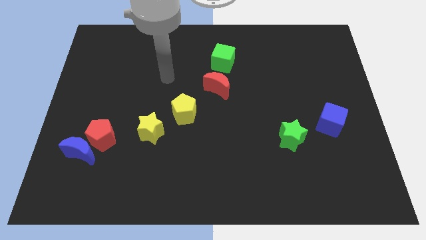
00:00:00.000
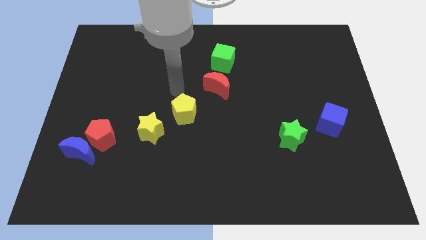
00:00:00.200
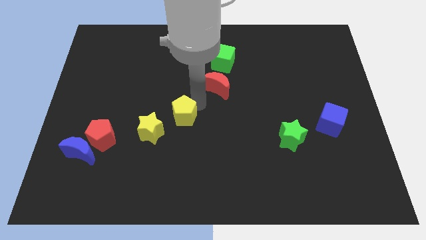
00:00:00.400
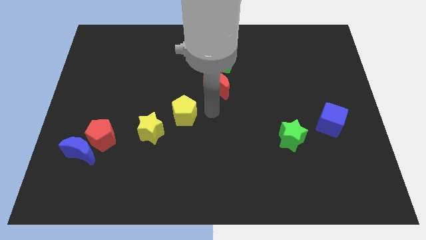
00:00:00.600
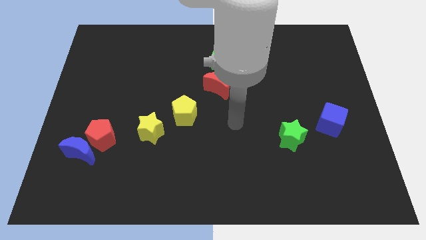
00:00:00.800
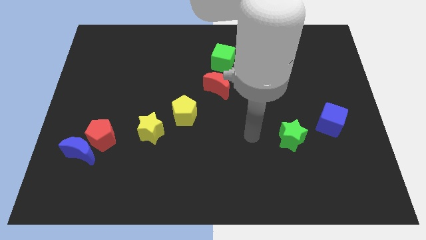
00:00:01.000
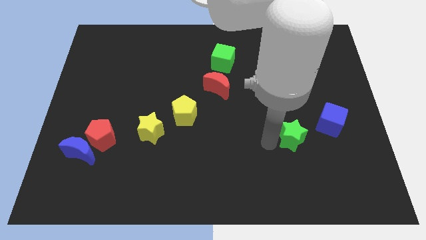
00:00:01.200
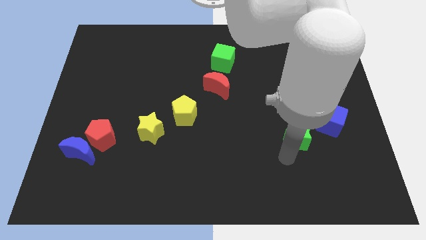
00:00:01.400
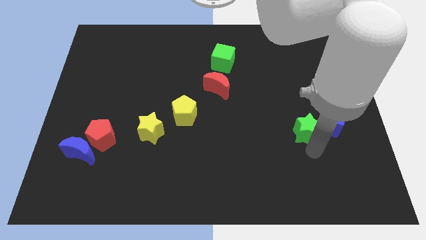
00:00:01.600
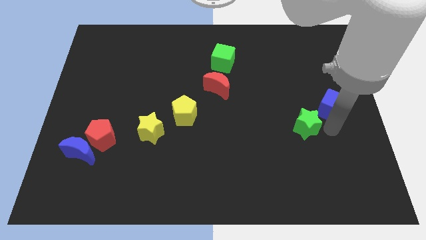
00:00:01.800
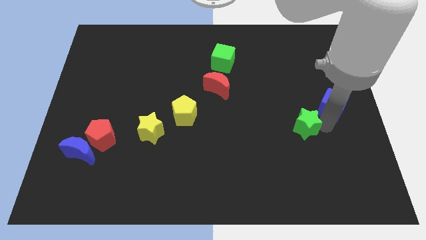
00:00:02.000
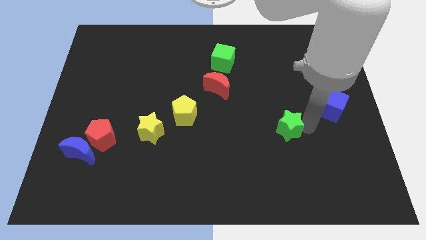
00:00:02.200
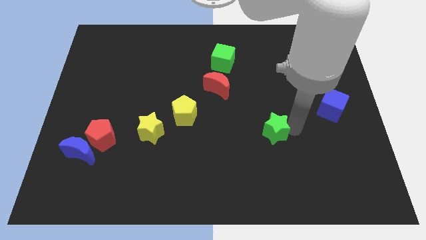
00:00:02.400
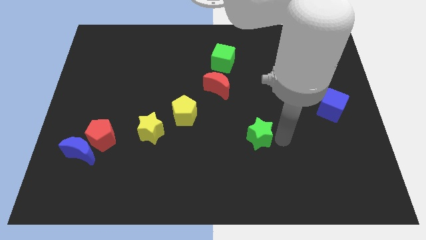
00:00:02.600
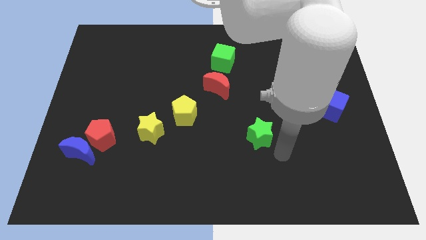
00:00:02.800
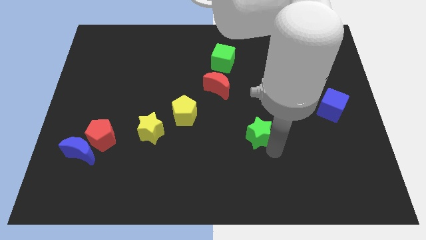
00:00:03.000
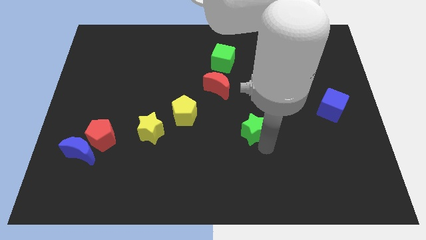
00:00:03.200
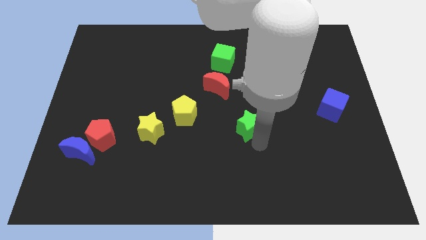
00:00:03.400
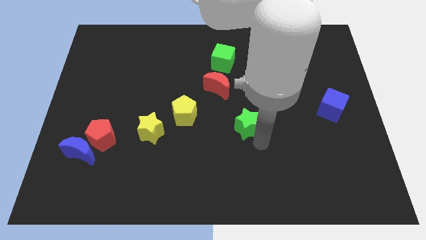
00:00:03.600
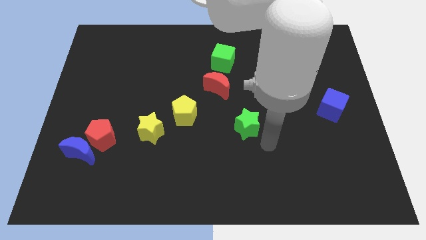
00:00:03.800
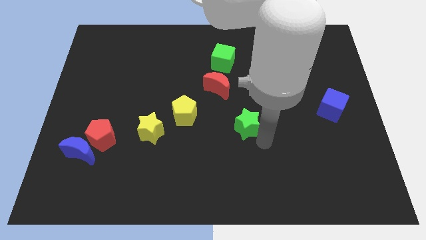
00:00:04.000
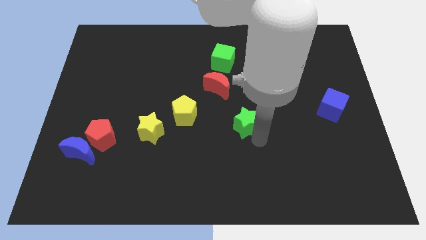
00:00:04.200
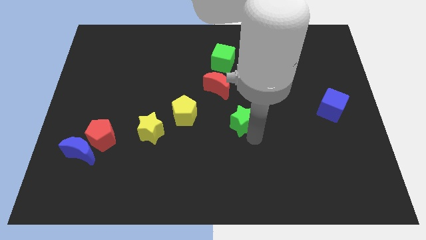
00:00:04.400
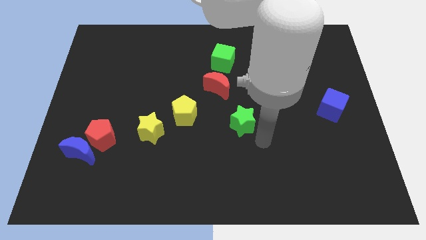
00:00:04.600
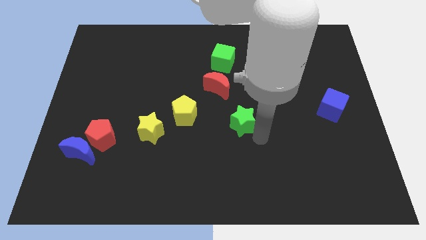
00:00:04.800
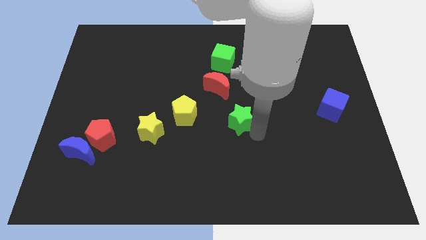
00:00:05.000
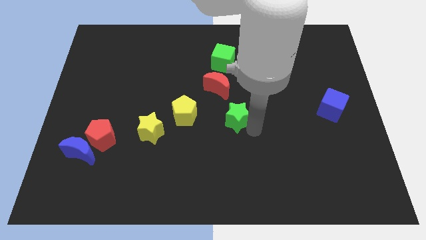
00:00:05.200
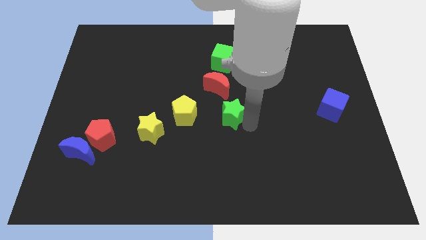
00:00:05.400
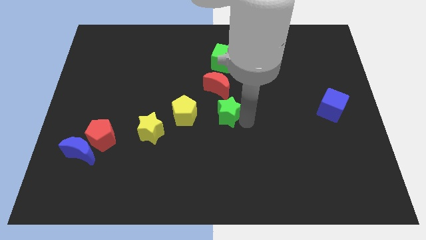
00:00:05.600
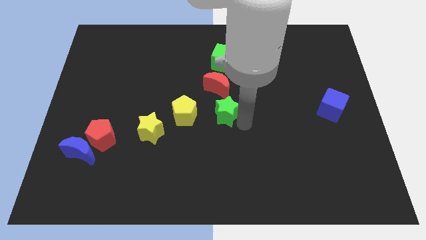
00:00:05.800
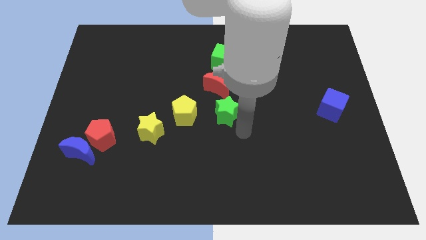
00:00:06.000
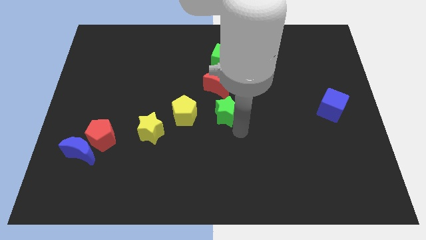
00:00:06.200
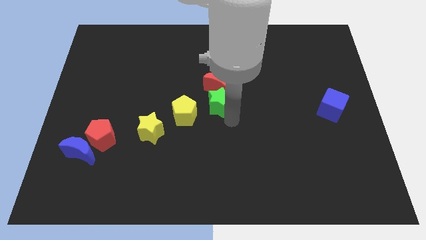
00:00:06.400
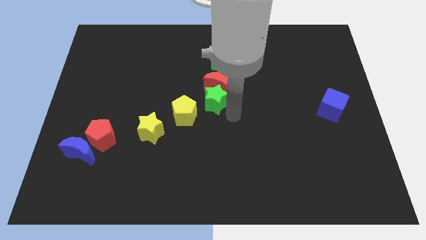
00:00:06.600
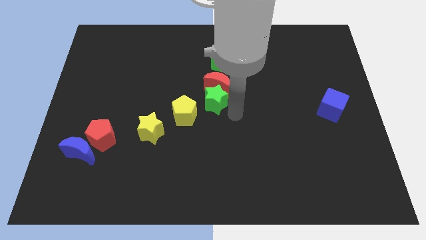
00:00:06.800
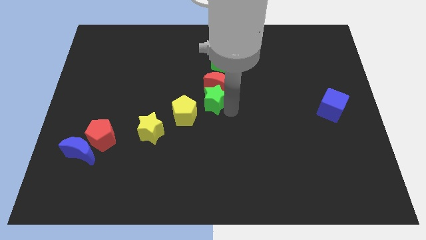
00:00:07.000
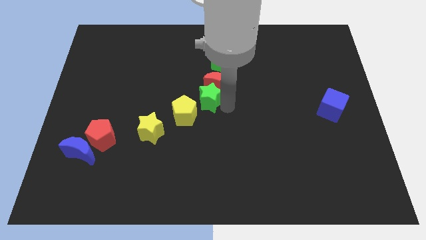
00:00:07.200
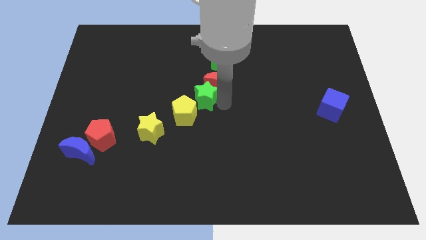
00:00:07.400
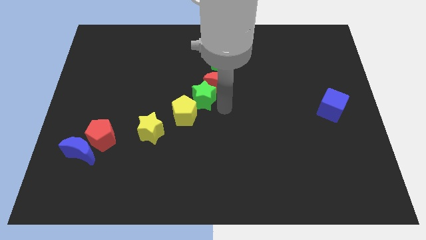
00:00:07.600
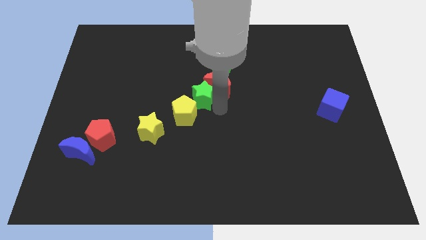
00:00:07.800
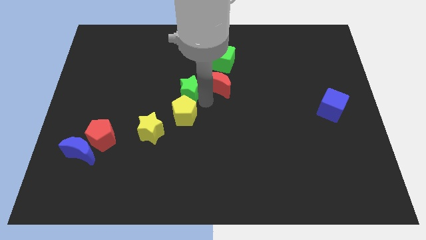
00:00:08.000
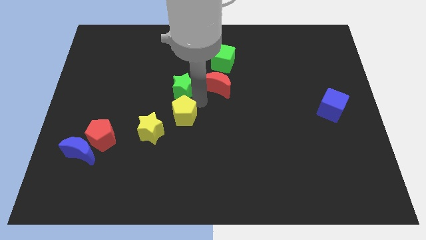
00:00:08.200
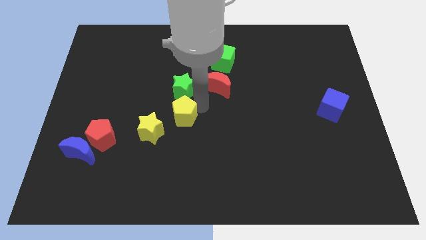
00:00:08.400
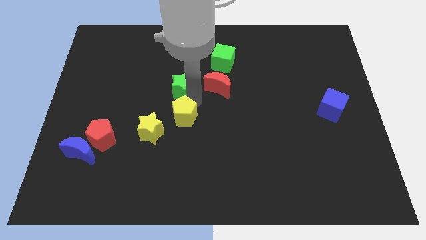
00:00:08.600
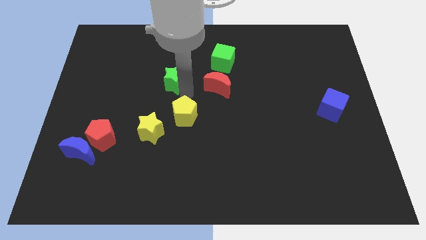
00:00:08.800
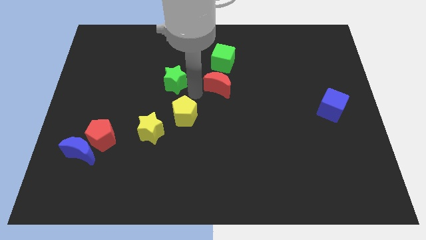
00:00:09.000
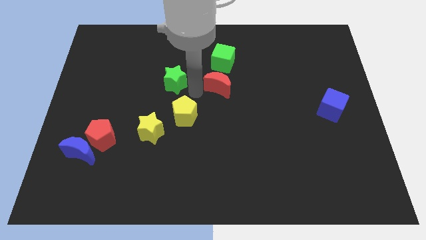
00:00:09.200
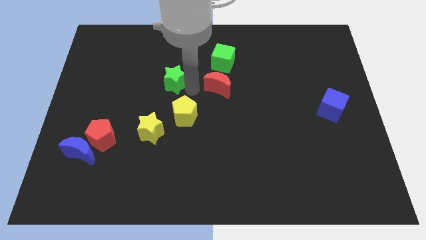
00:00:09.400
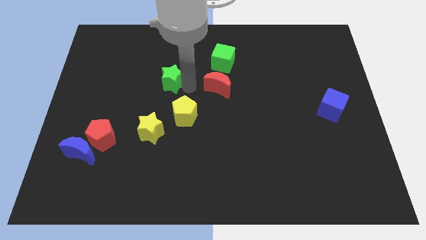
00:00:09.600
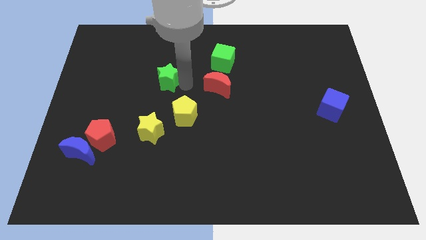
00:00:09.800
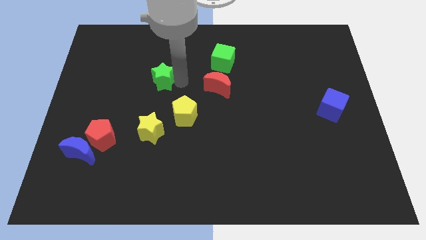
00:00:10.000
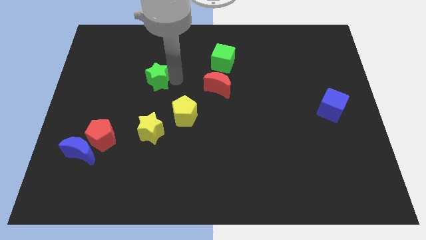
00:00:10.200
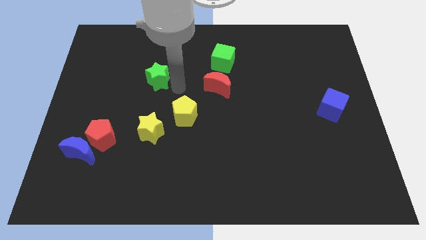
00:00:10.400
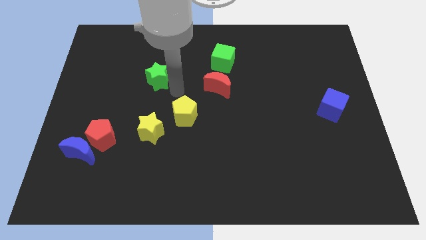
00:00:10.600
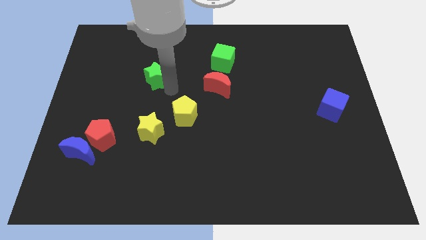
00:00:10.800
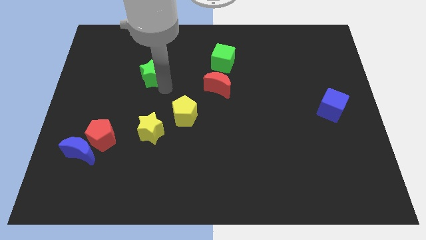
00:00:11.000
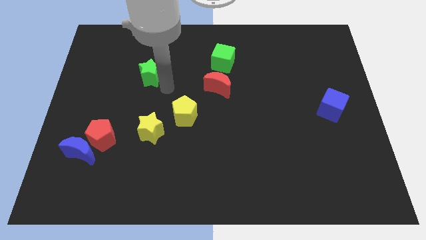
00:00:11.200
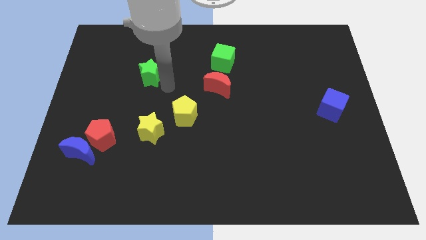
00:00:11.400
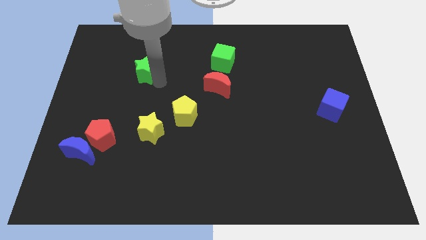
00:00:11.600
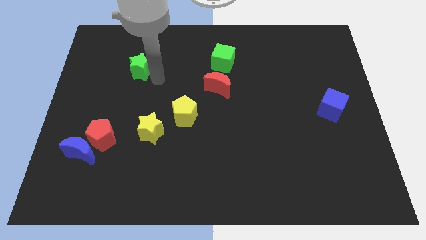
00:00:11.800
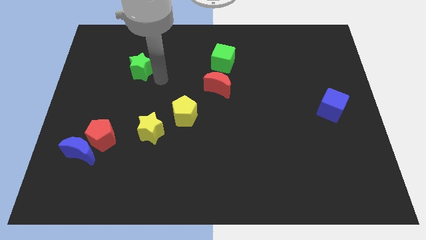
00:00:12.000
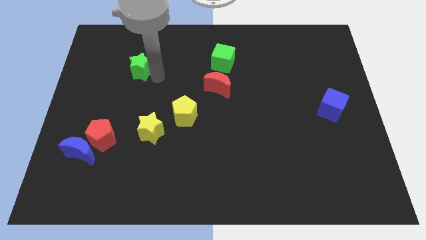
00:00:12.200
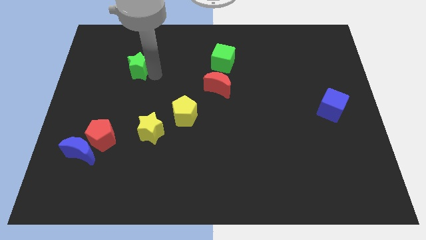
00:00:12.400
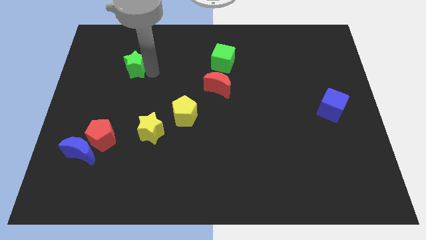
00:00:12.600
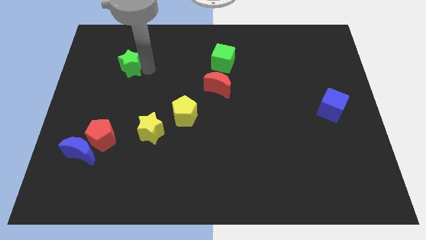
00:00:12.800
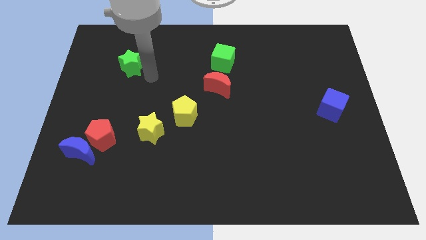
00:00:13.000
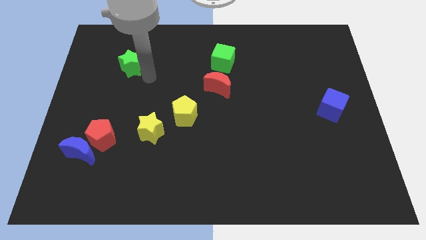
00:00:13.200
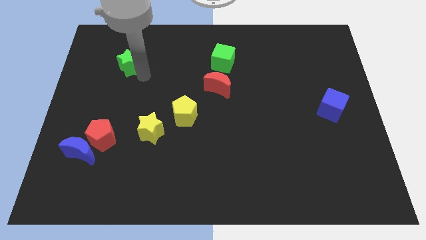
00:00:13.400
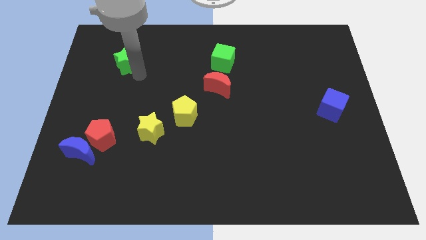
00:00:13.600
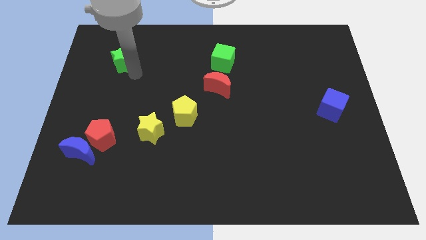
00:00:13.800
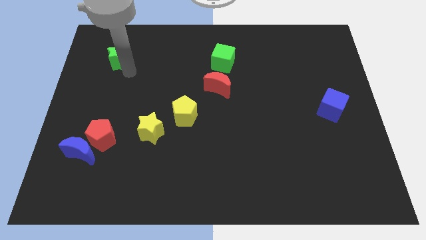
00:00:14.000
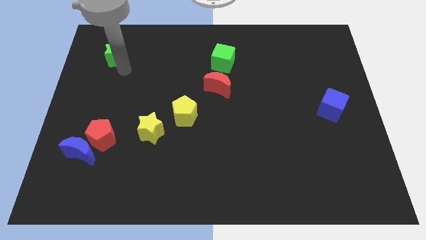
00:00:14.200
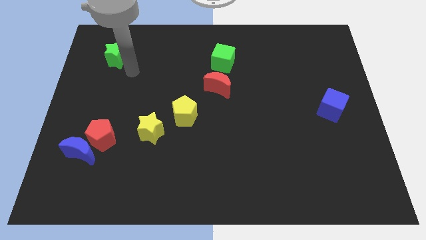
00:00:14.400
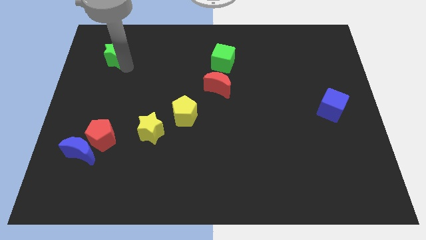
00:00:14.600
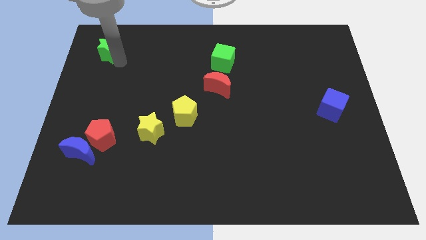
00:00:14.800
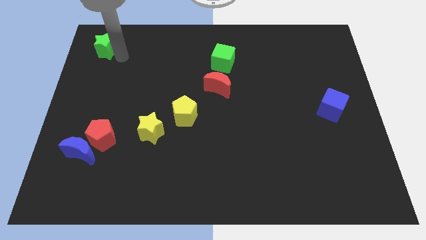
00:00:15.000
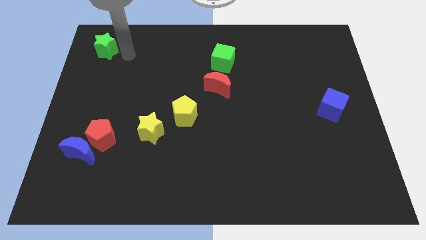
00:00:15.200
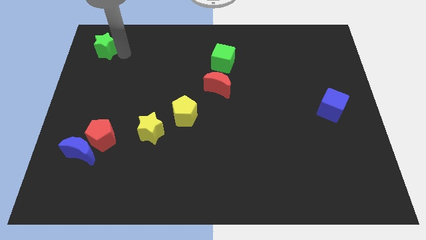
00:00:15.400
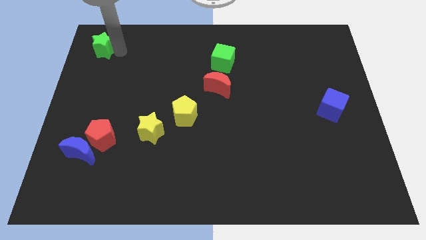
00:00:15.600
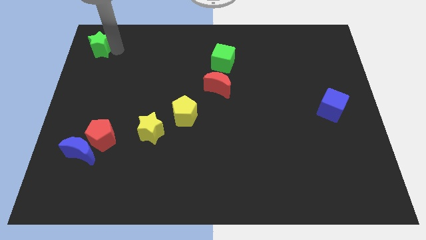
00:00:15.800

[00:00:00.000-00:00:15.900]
put the green star to the top left of the board
